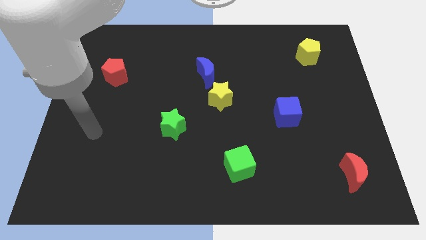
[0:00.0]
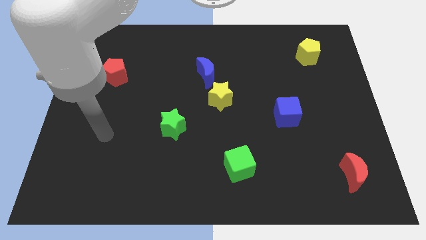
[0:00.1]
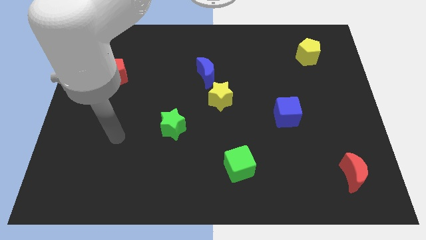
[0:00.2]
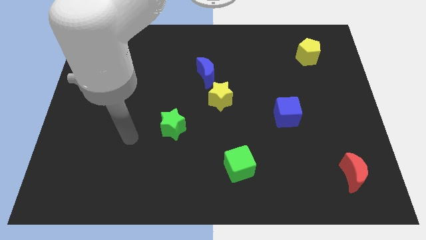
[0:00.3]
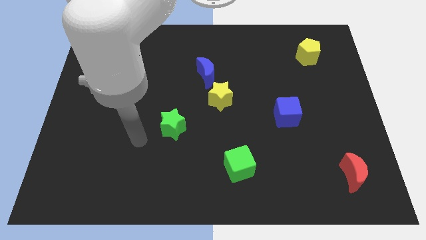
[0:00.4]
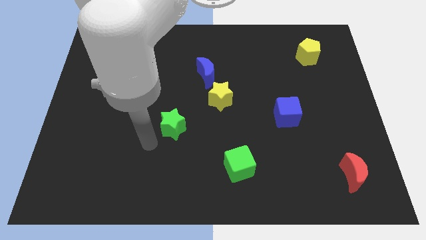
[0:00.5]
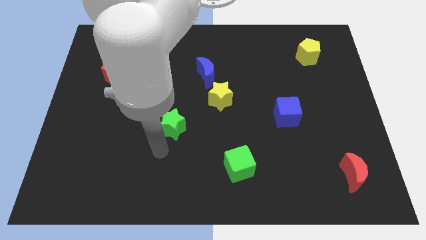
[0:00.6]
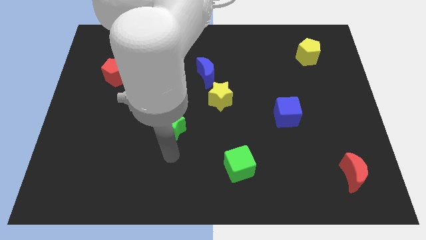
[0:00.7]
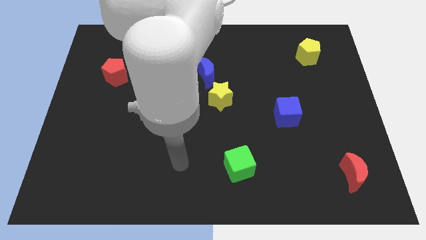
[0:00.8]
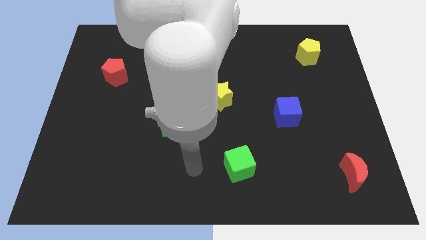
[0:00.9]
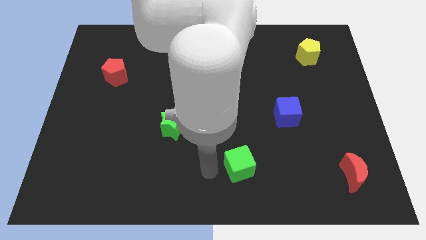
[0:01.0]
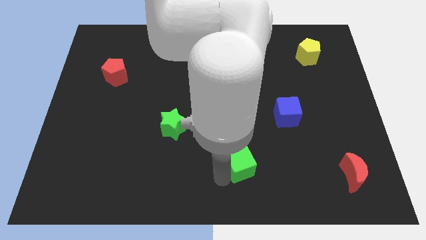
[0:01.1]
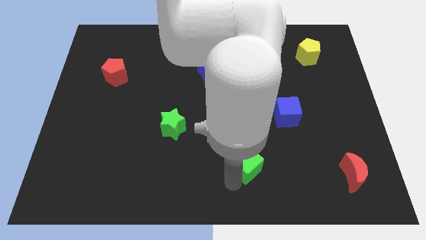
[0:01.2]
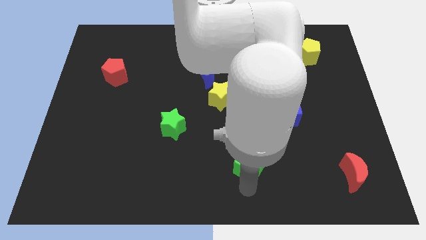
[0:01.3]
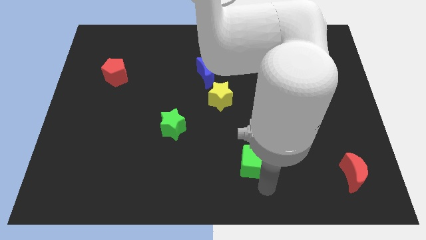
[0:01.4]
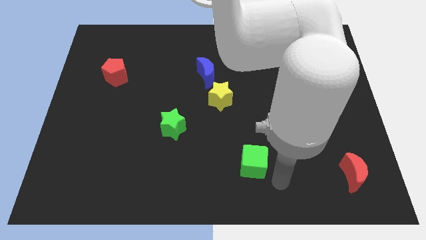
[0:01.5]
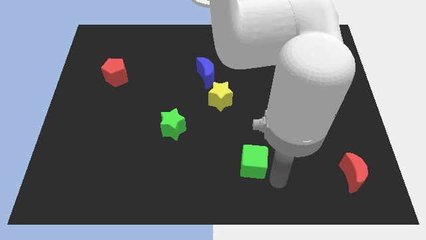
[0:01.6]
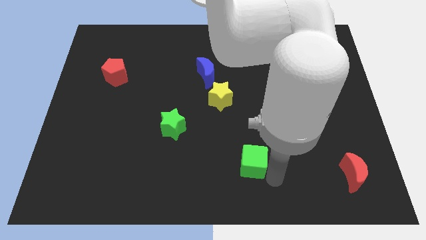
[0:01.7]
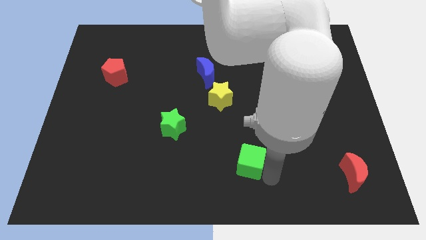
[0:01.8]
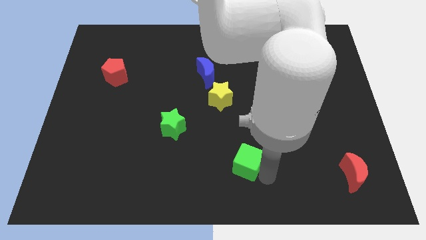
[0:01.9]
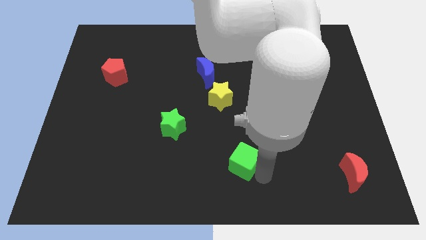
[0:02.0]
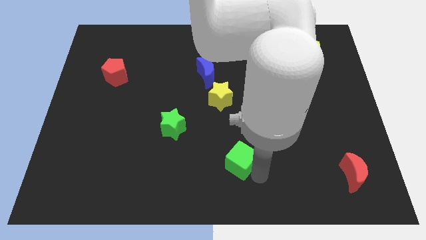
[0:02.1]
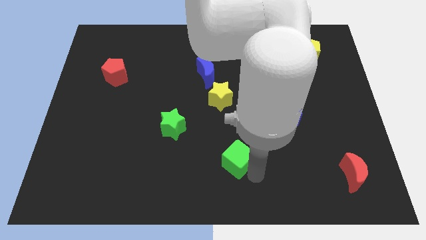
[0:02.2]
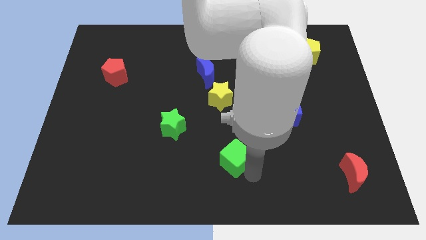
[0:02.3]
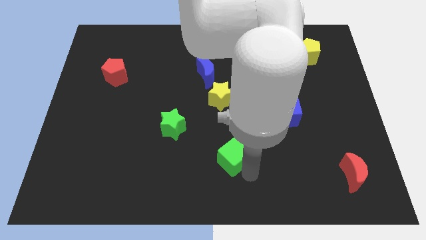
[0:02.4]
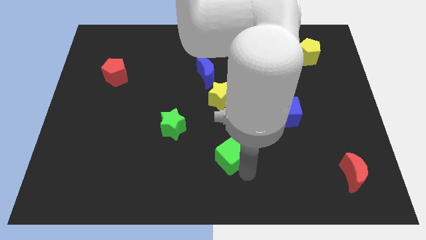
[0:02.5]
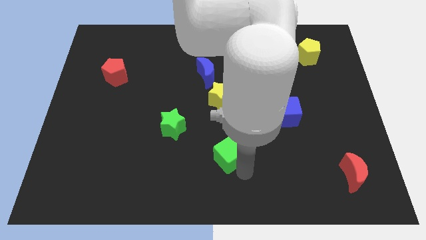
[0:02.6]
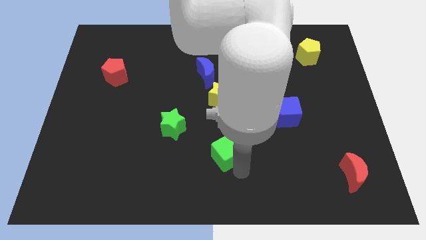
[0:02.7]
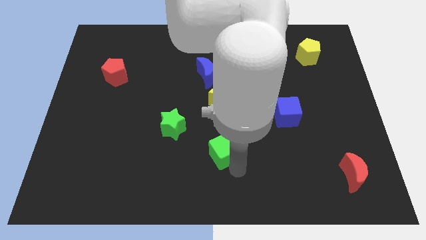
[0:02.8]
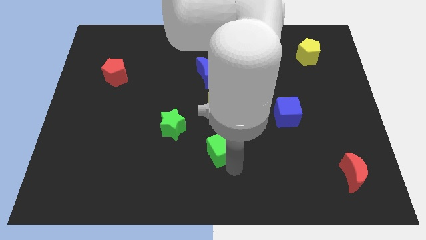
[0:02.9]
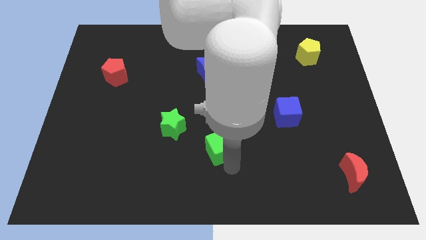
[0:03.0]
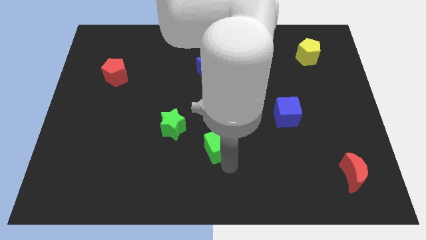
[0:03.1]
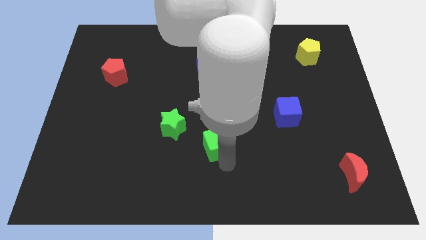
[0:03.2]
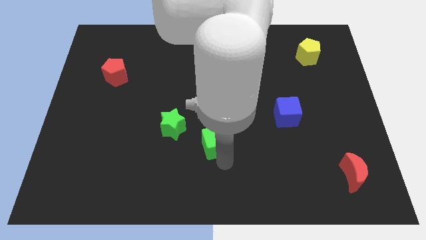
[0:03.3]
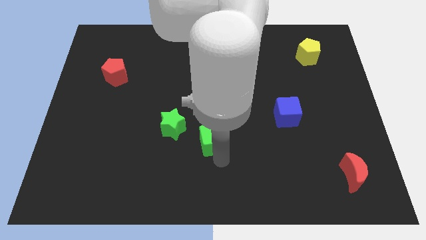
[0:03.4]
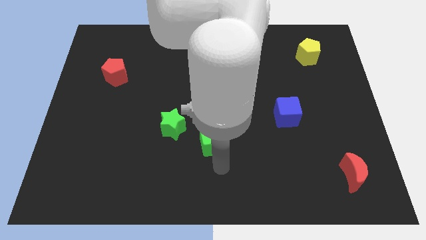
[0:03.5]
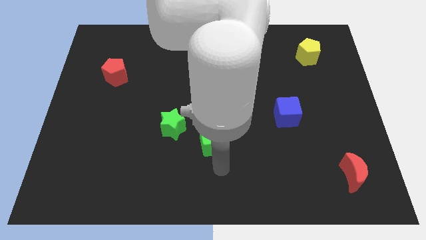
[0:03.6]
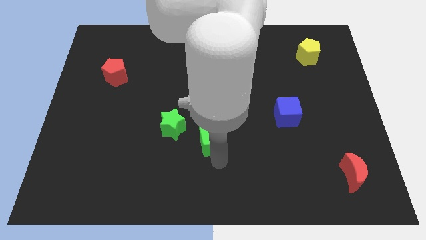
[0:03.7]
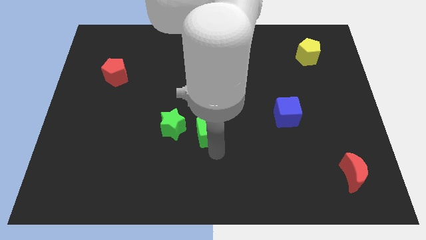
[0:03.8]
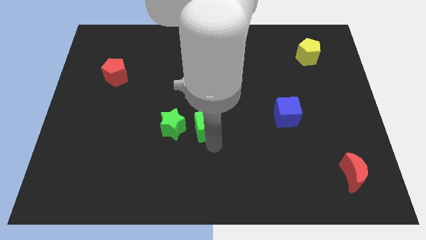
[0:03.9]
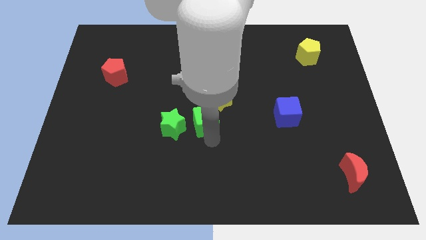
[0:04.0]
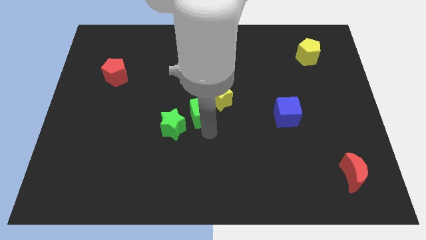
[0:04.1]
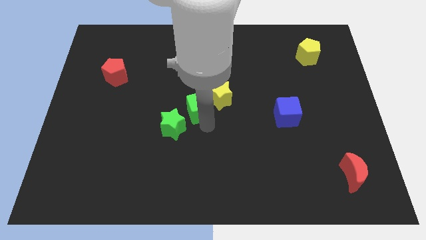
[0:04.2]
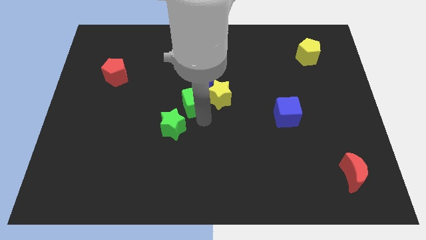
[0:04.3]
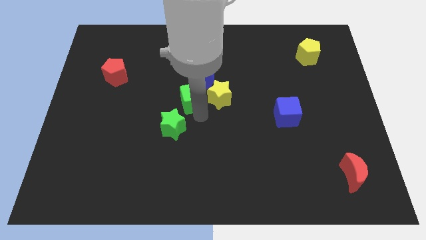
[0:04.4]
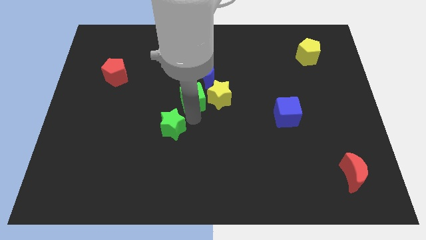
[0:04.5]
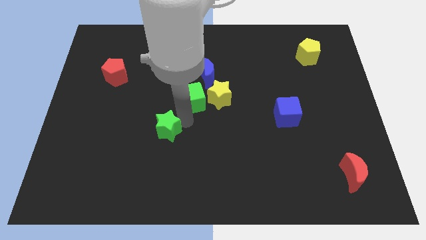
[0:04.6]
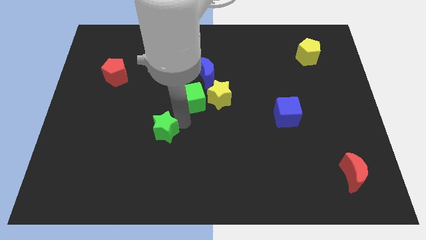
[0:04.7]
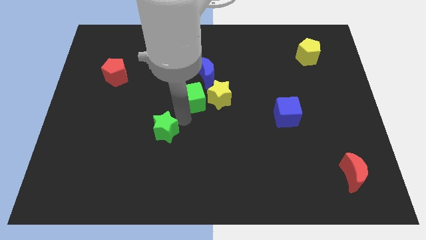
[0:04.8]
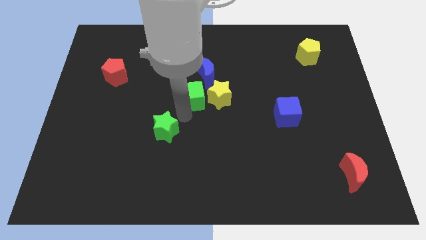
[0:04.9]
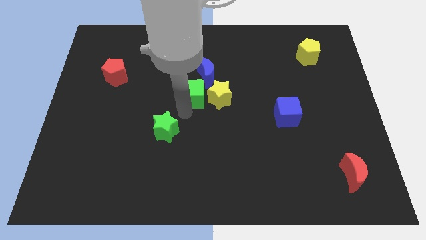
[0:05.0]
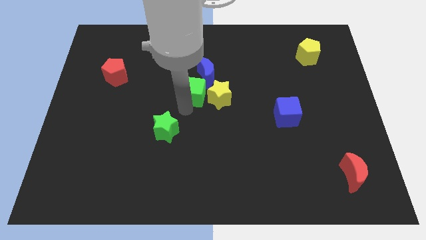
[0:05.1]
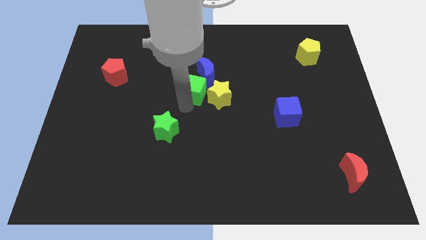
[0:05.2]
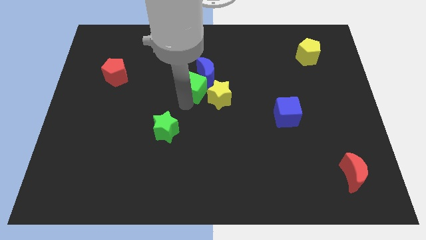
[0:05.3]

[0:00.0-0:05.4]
push the green cube to the blue moon

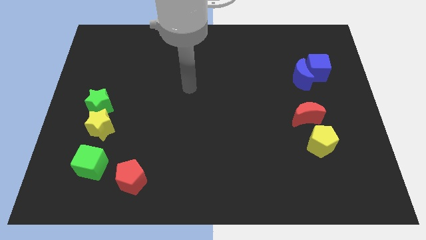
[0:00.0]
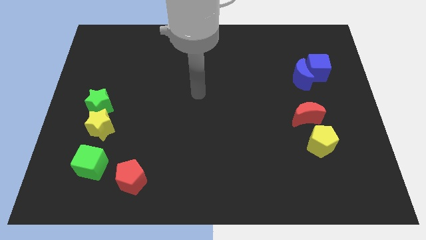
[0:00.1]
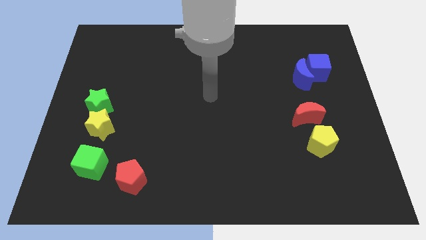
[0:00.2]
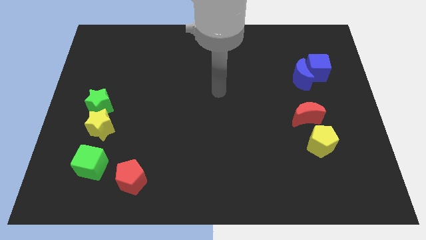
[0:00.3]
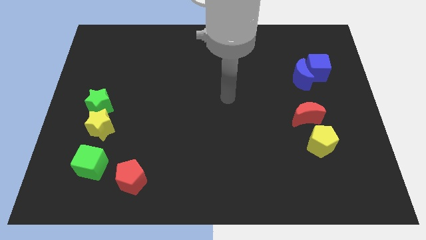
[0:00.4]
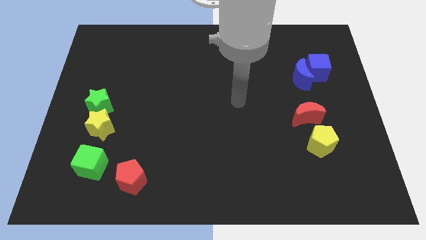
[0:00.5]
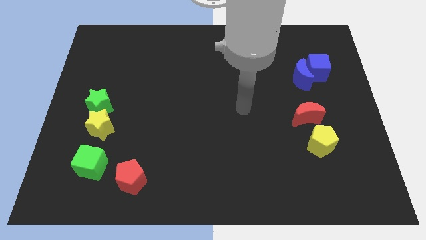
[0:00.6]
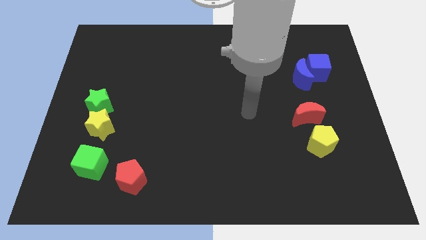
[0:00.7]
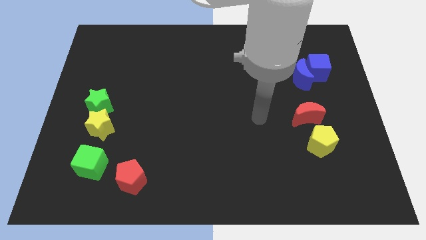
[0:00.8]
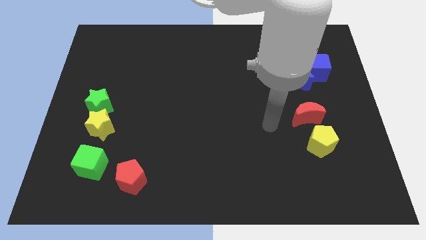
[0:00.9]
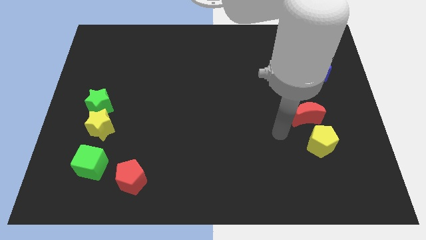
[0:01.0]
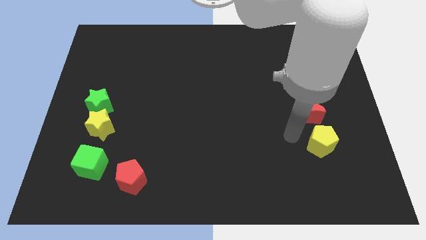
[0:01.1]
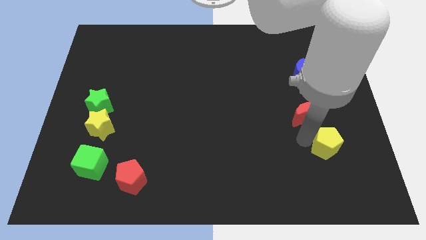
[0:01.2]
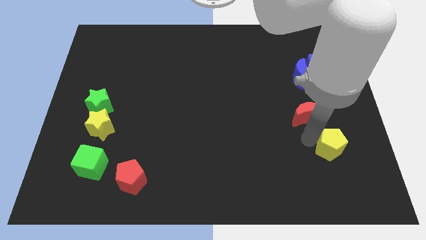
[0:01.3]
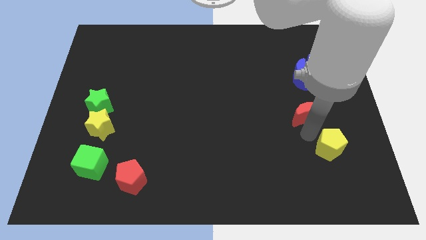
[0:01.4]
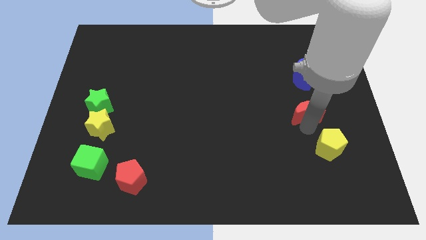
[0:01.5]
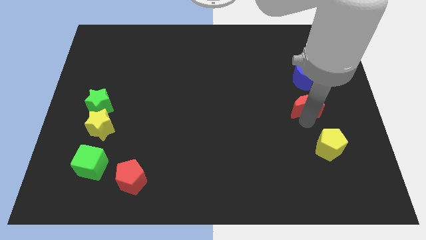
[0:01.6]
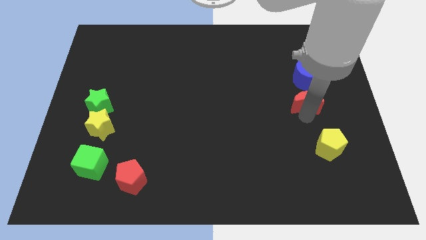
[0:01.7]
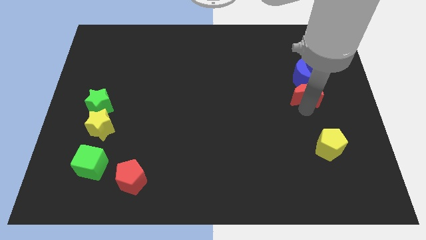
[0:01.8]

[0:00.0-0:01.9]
slide the red moon next to the blue moon

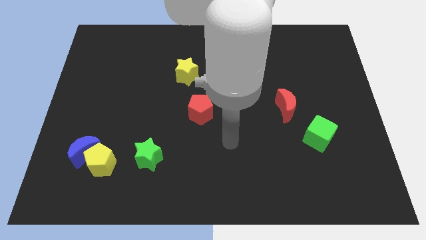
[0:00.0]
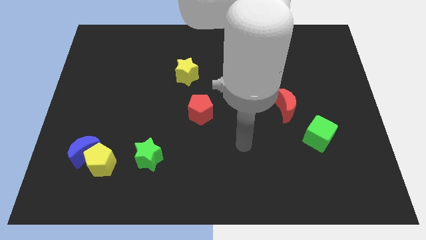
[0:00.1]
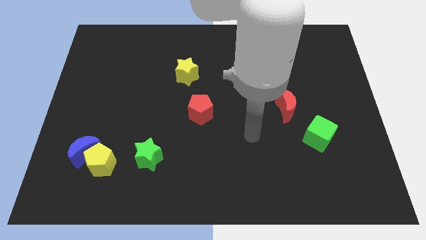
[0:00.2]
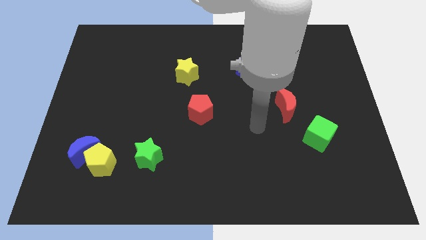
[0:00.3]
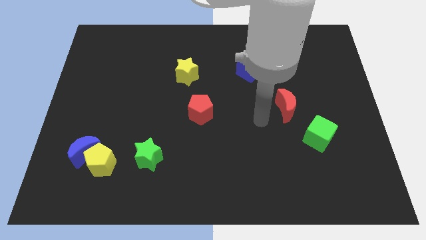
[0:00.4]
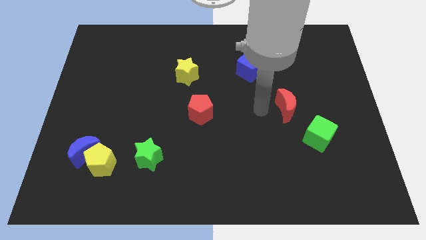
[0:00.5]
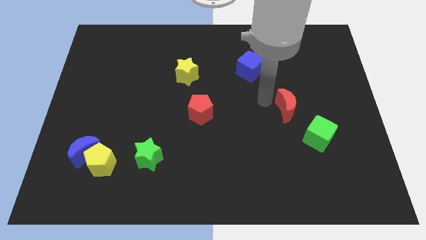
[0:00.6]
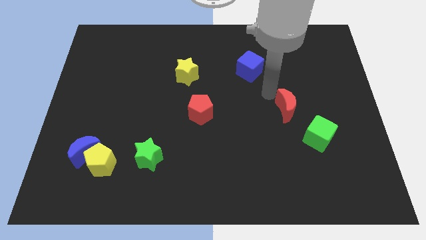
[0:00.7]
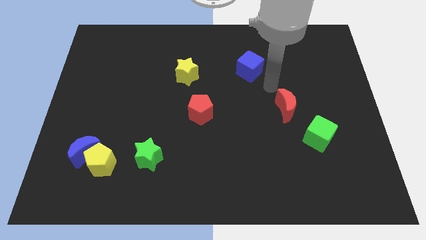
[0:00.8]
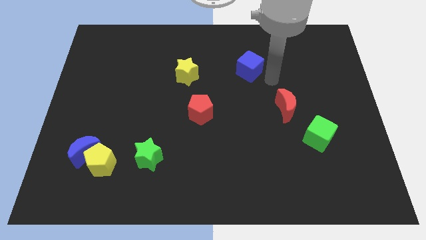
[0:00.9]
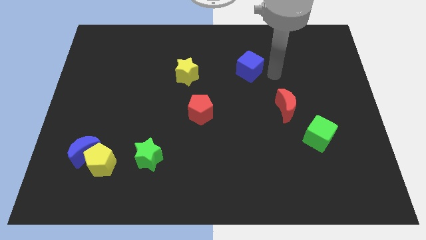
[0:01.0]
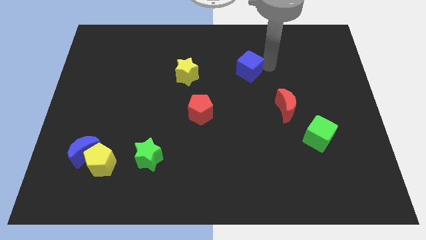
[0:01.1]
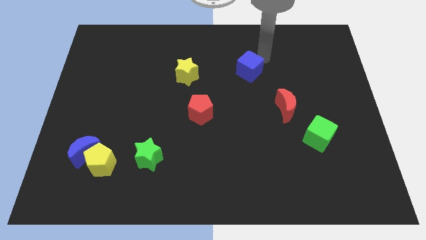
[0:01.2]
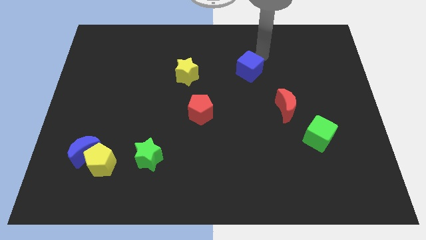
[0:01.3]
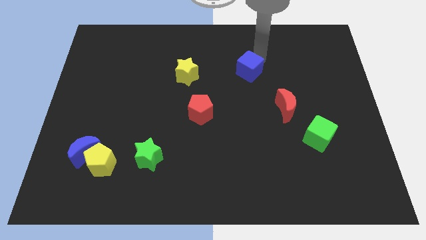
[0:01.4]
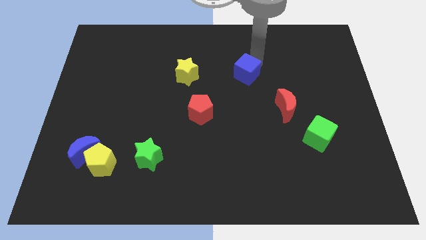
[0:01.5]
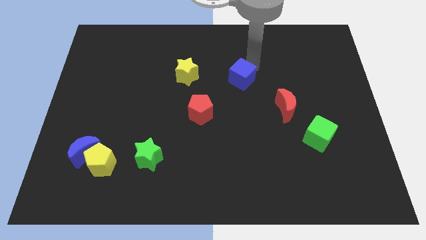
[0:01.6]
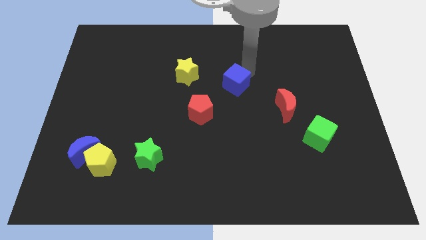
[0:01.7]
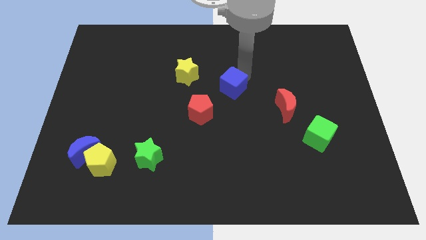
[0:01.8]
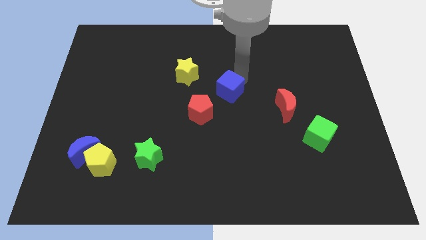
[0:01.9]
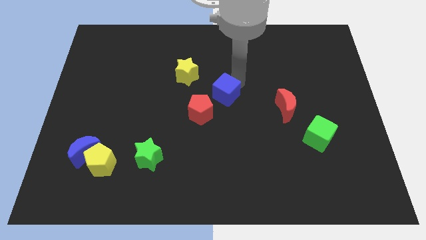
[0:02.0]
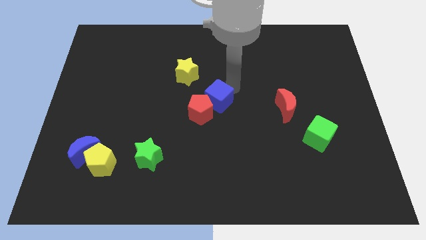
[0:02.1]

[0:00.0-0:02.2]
push the blue cube close to the red pentagon
